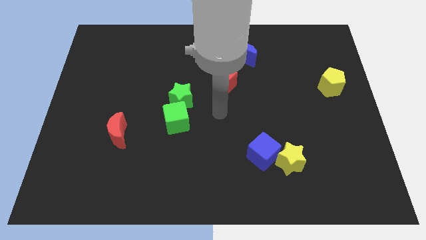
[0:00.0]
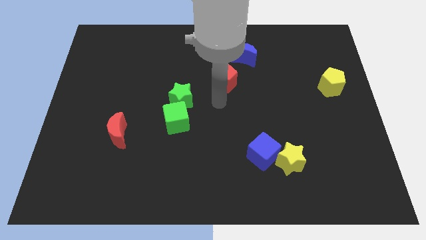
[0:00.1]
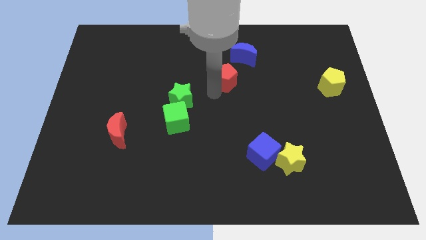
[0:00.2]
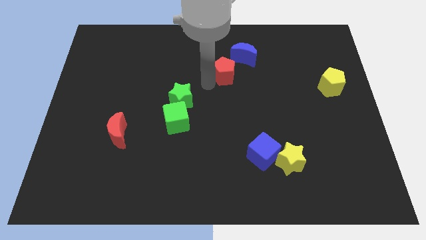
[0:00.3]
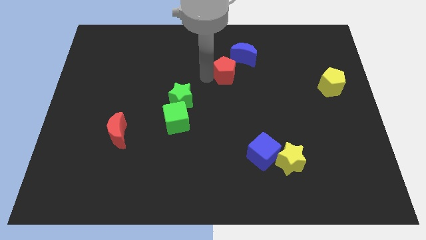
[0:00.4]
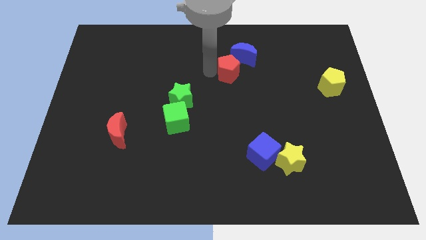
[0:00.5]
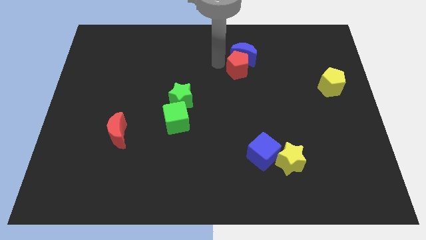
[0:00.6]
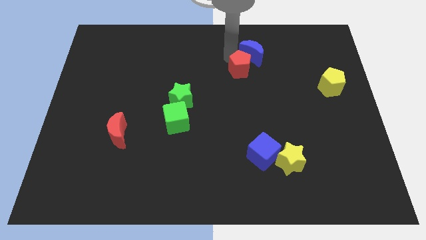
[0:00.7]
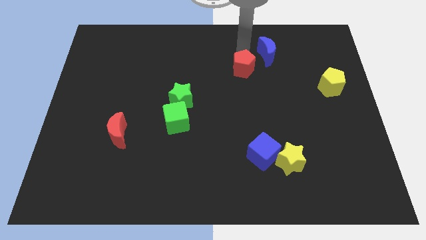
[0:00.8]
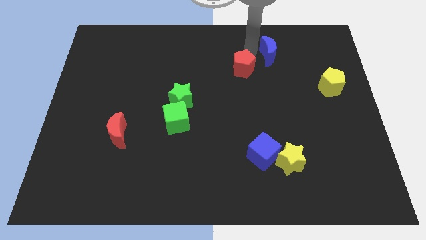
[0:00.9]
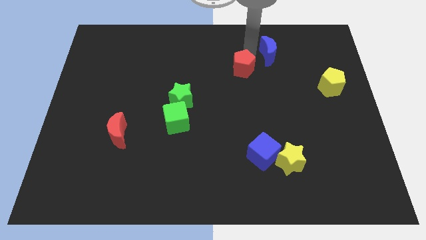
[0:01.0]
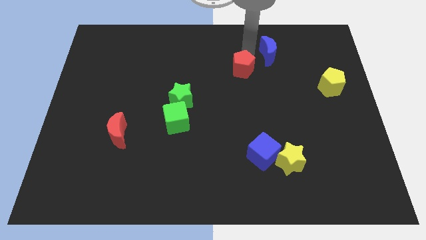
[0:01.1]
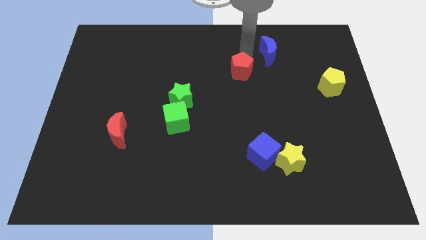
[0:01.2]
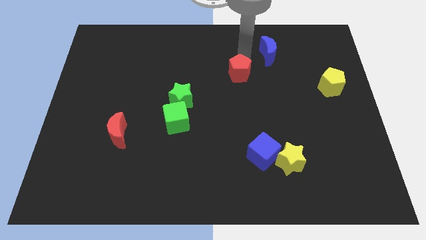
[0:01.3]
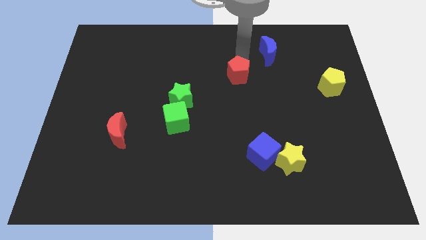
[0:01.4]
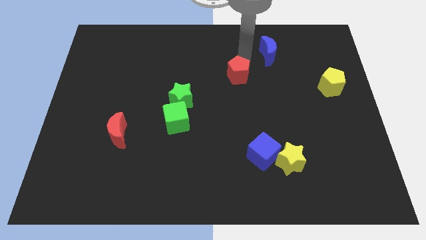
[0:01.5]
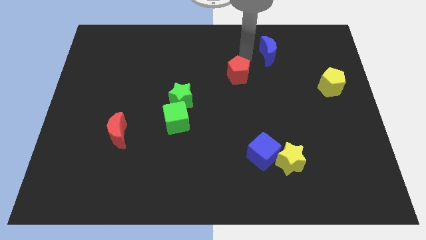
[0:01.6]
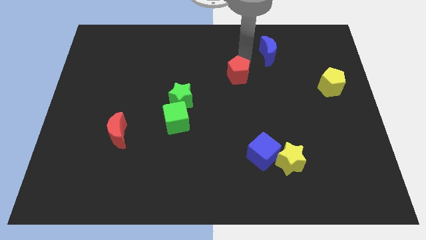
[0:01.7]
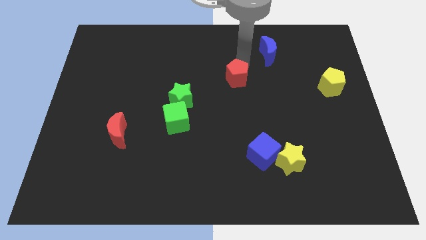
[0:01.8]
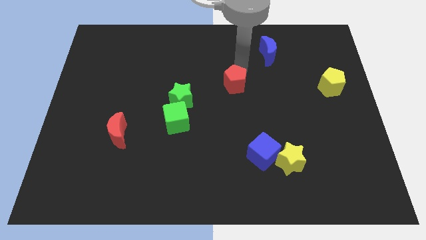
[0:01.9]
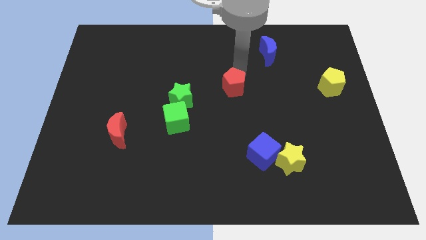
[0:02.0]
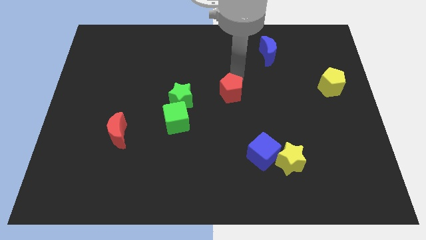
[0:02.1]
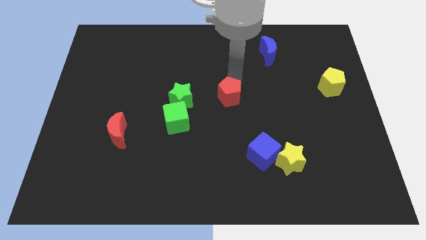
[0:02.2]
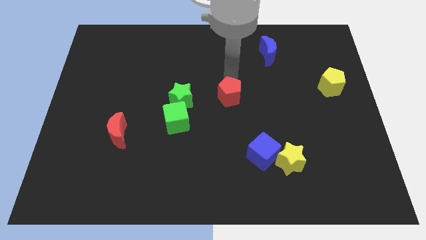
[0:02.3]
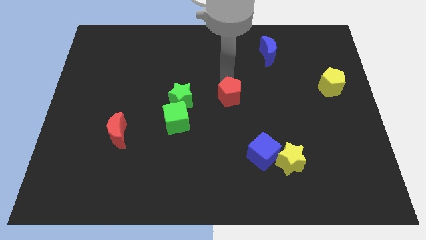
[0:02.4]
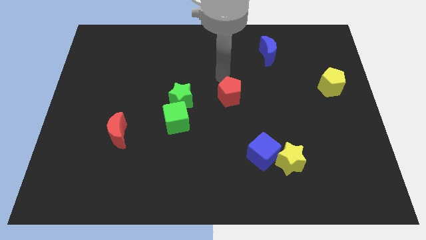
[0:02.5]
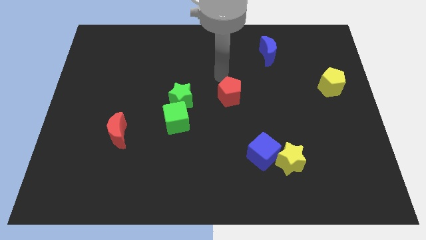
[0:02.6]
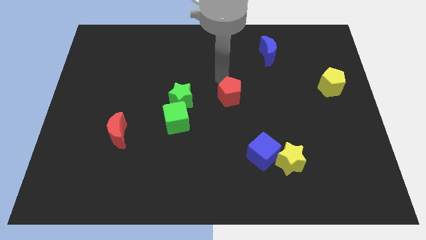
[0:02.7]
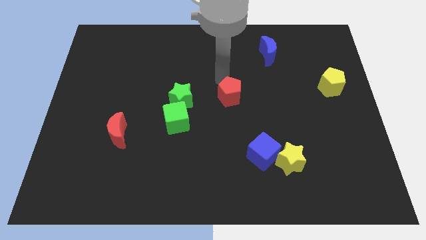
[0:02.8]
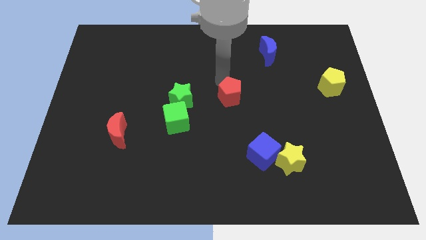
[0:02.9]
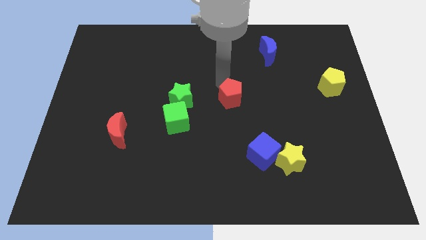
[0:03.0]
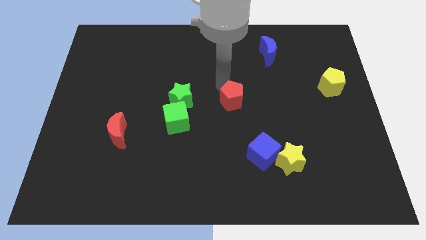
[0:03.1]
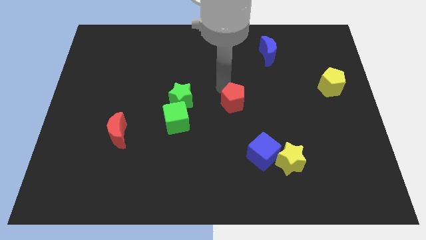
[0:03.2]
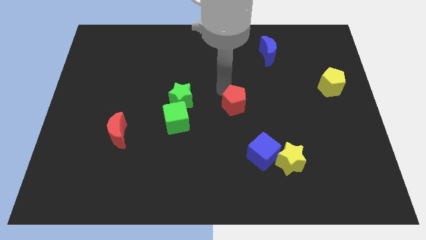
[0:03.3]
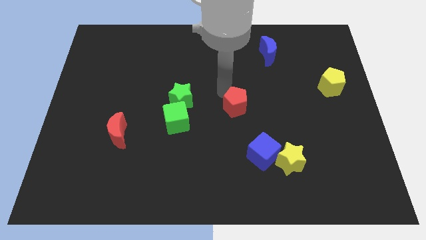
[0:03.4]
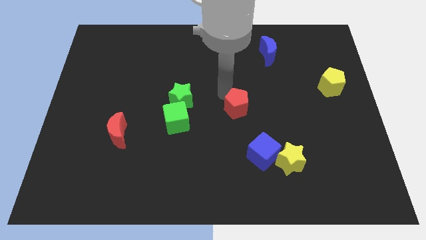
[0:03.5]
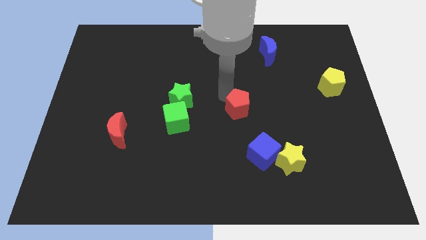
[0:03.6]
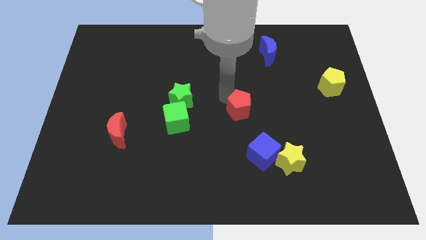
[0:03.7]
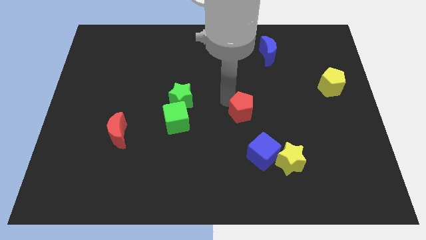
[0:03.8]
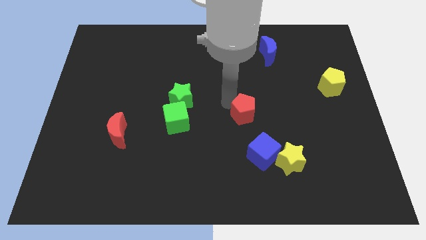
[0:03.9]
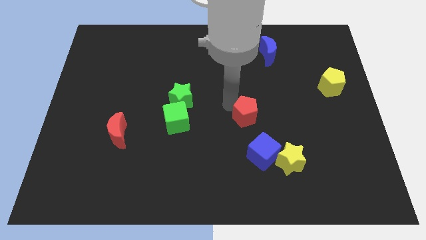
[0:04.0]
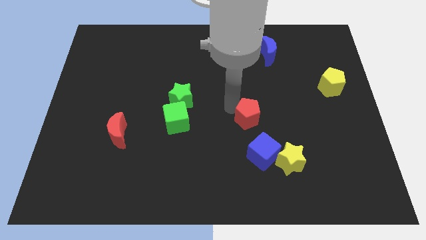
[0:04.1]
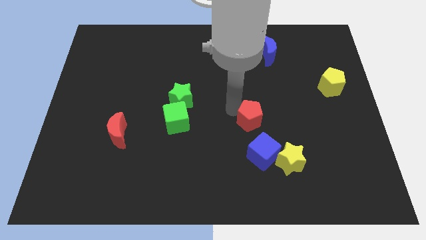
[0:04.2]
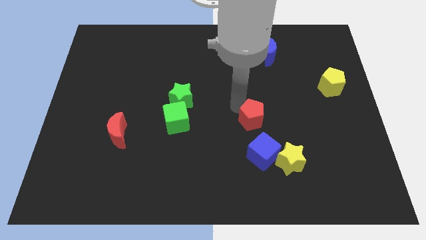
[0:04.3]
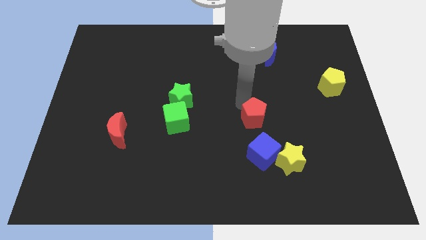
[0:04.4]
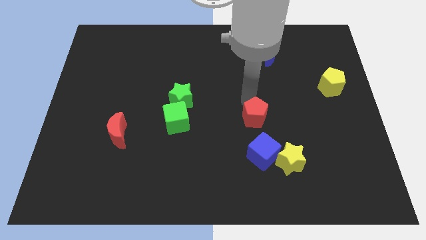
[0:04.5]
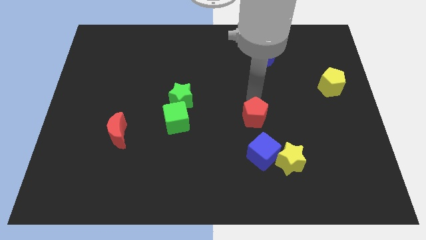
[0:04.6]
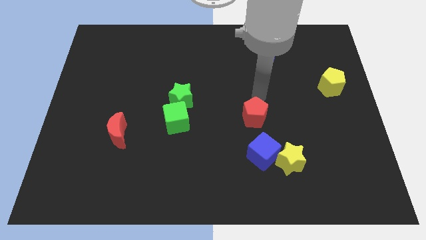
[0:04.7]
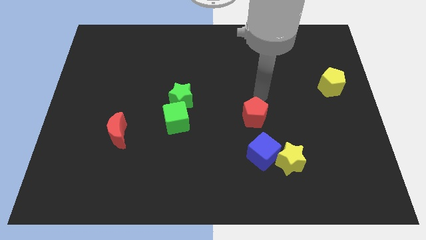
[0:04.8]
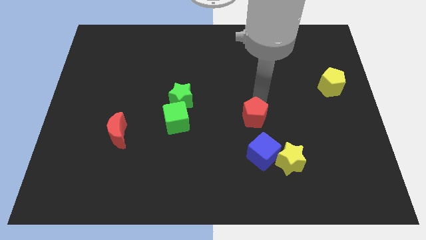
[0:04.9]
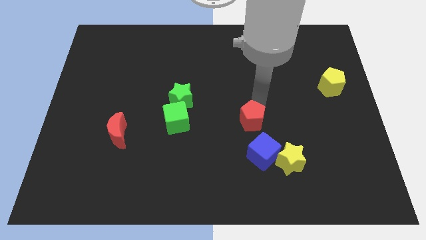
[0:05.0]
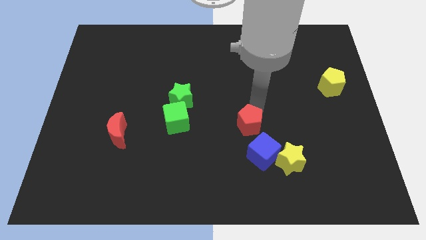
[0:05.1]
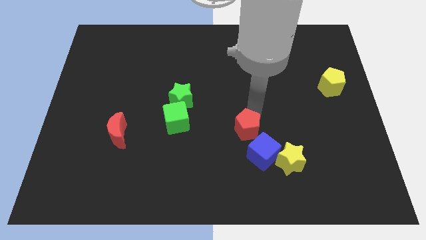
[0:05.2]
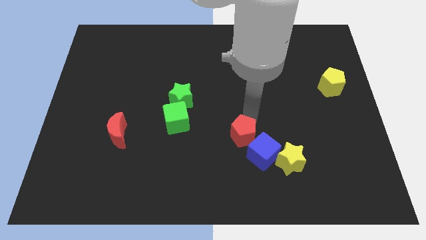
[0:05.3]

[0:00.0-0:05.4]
move the red pentagon towards the blue cube

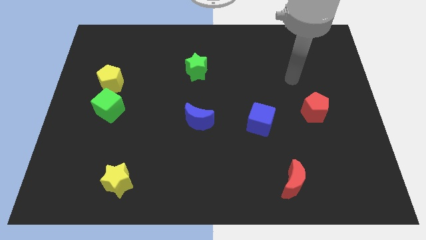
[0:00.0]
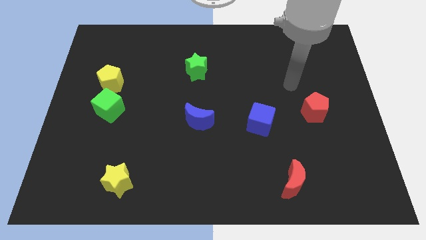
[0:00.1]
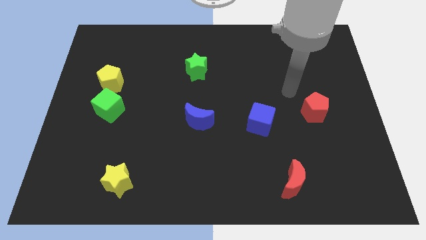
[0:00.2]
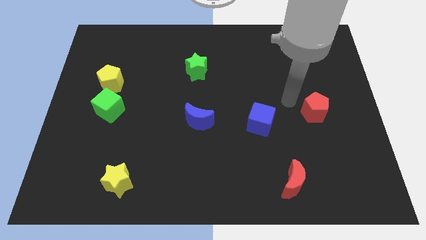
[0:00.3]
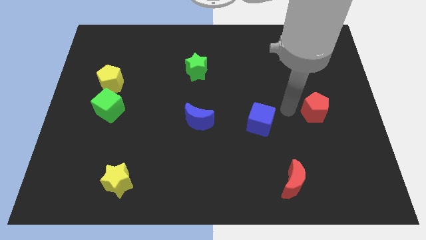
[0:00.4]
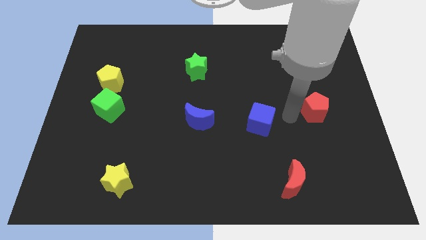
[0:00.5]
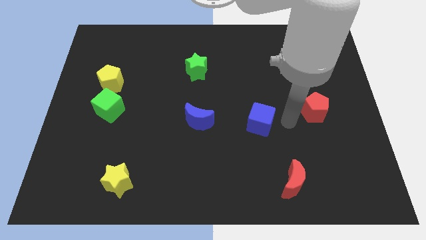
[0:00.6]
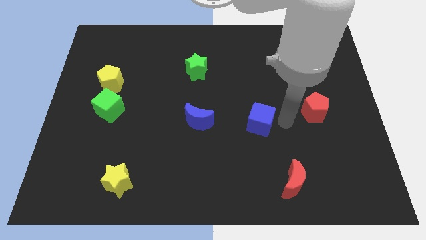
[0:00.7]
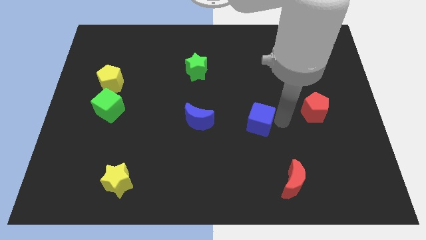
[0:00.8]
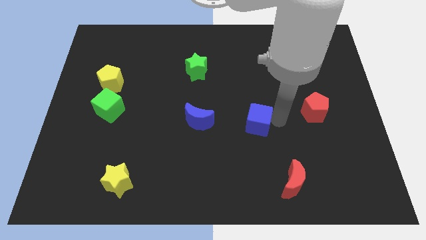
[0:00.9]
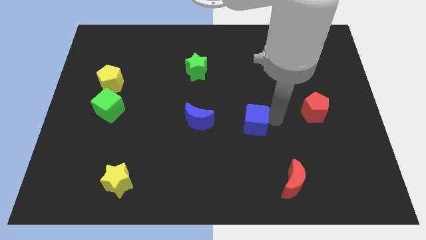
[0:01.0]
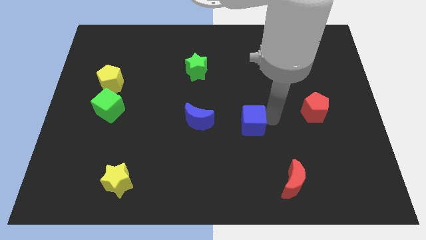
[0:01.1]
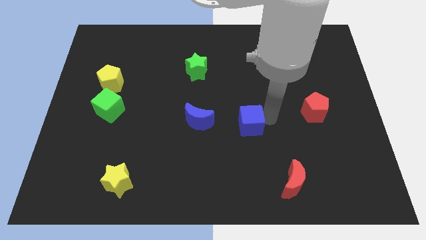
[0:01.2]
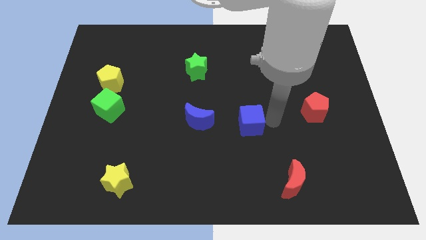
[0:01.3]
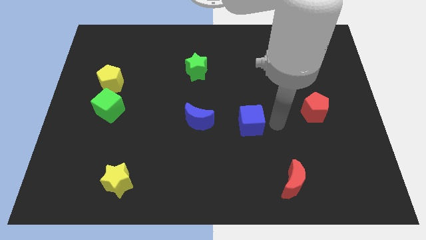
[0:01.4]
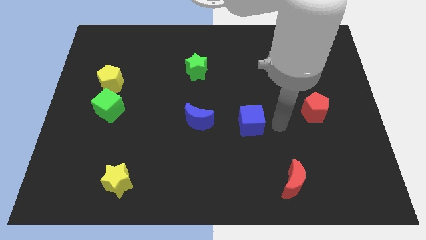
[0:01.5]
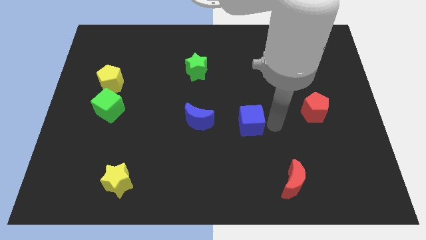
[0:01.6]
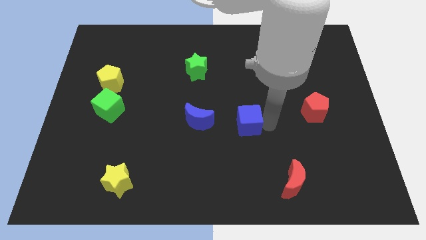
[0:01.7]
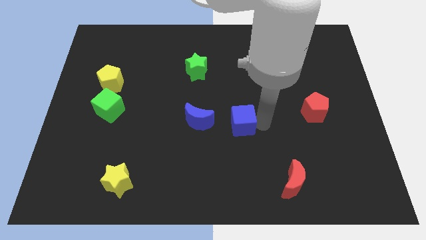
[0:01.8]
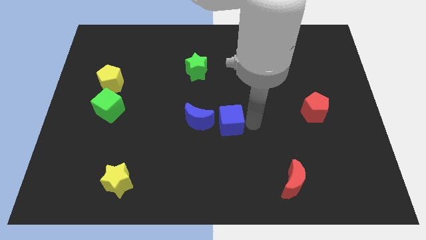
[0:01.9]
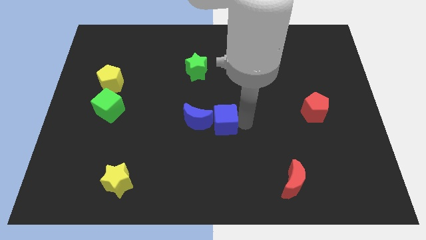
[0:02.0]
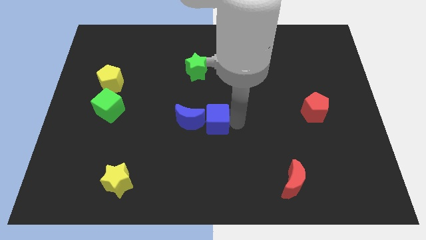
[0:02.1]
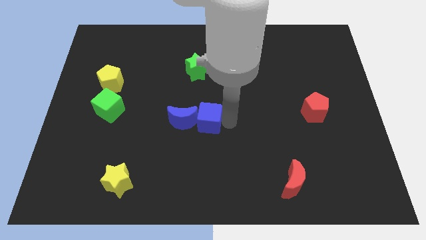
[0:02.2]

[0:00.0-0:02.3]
push the blue cube next to the blue moon

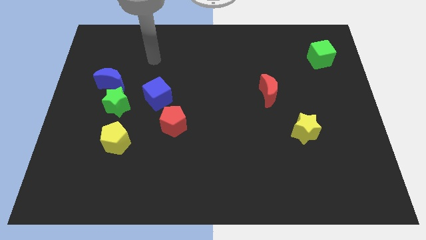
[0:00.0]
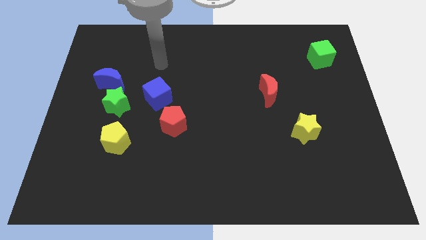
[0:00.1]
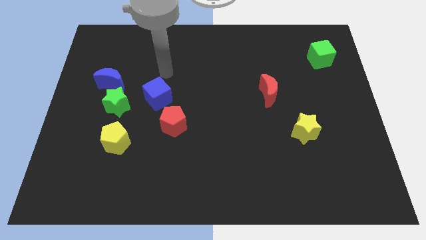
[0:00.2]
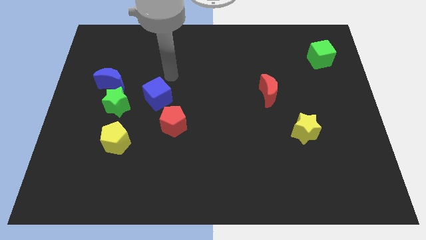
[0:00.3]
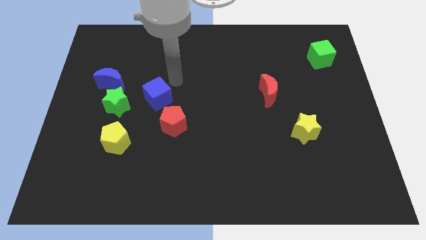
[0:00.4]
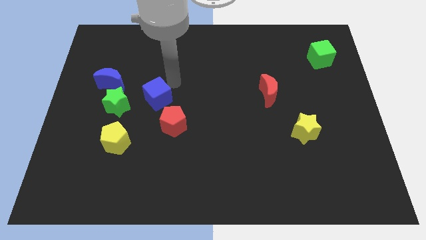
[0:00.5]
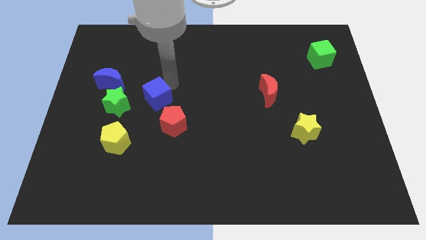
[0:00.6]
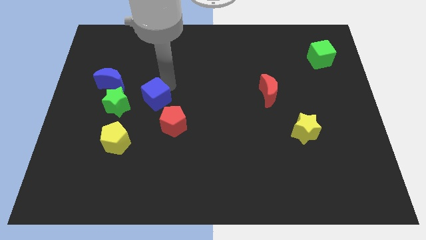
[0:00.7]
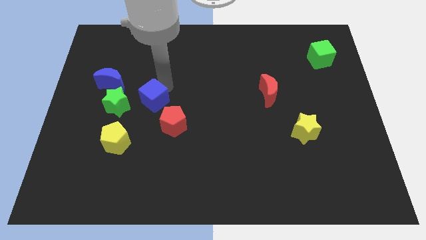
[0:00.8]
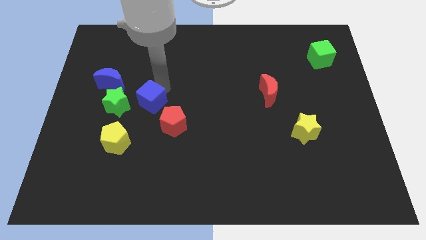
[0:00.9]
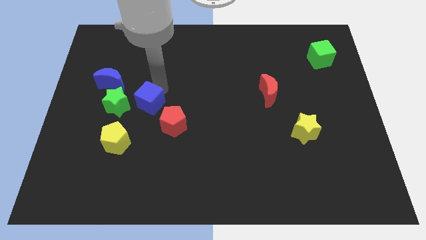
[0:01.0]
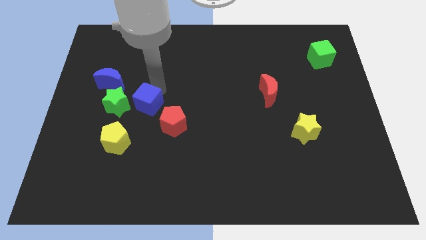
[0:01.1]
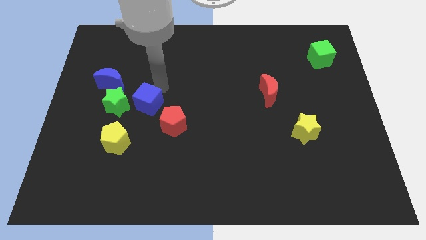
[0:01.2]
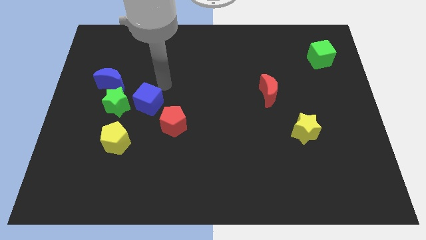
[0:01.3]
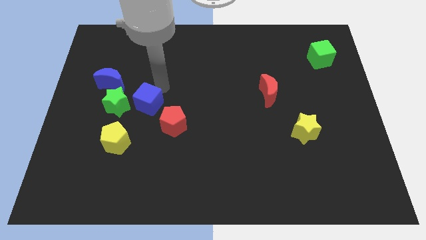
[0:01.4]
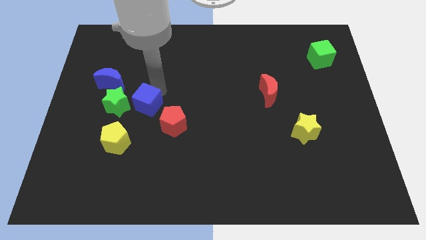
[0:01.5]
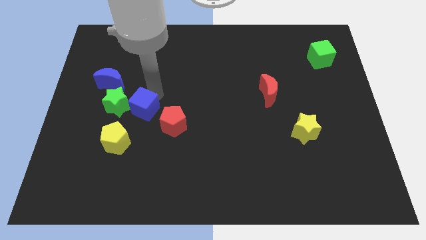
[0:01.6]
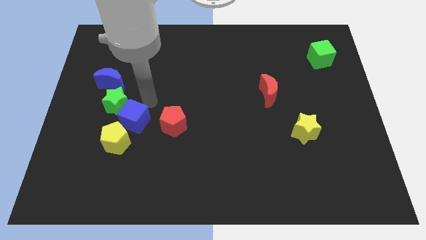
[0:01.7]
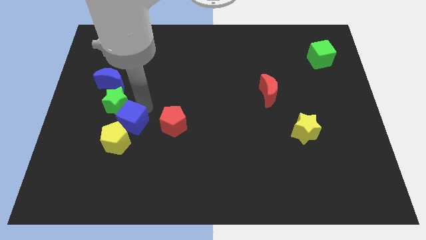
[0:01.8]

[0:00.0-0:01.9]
put the blue cube to the yellow pentagon
